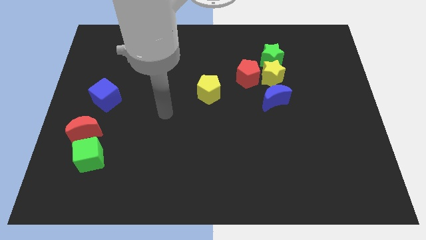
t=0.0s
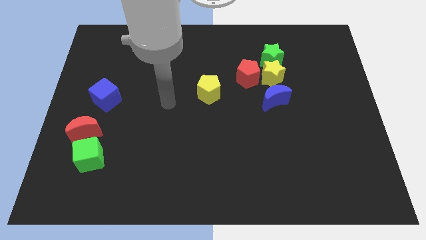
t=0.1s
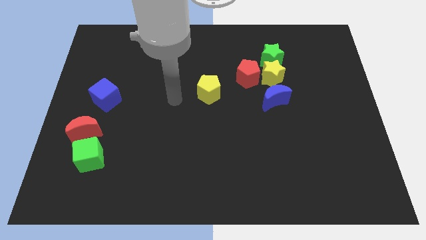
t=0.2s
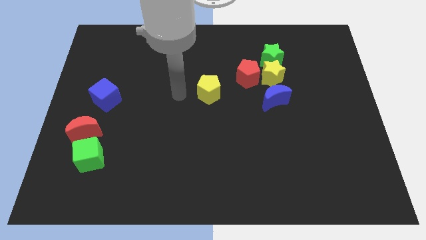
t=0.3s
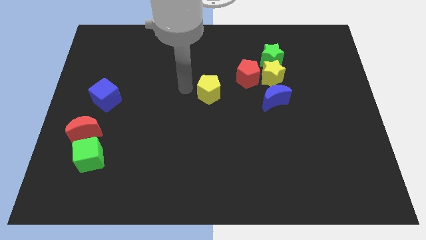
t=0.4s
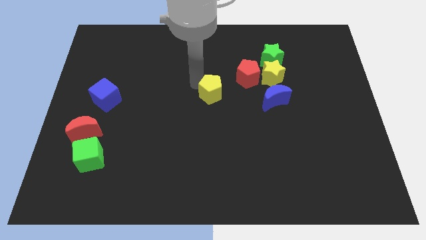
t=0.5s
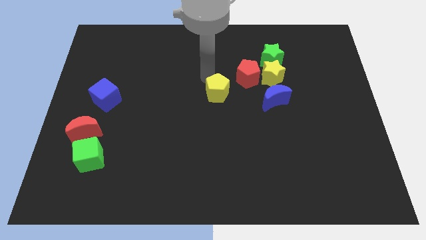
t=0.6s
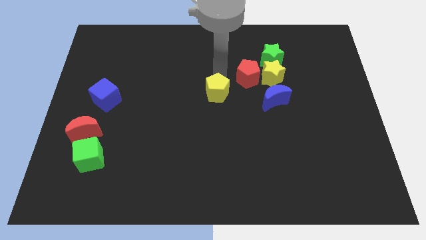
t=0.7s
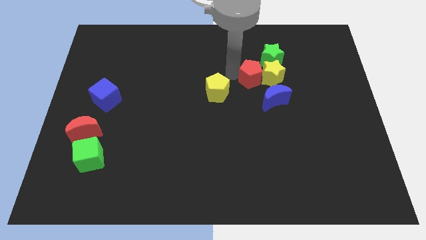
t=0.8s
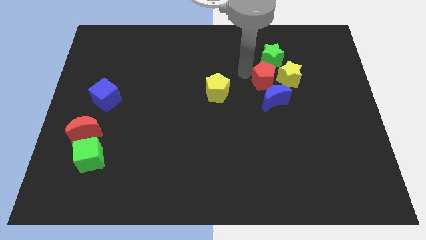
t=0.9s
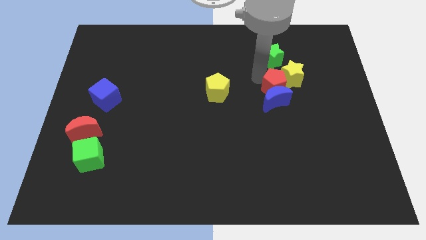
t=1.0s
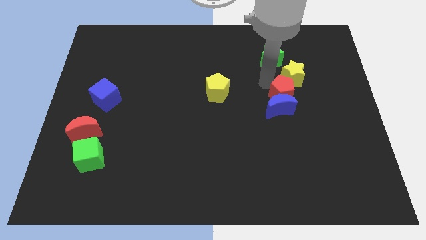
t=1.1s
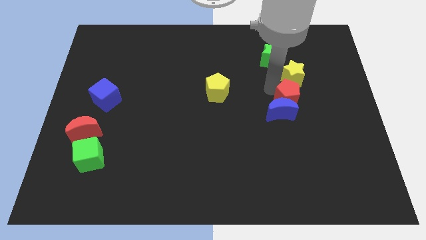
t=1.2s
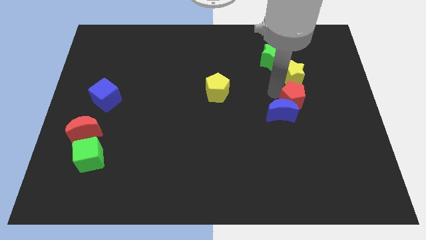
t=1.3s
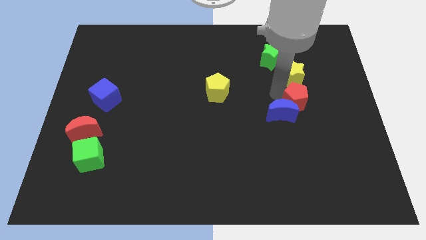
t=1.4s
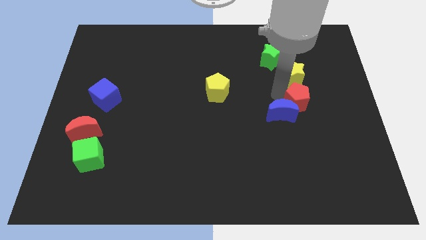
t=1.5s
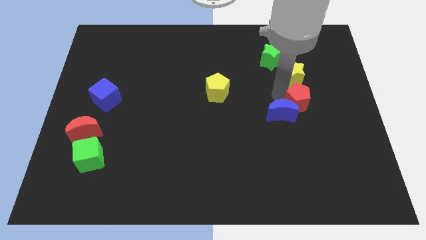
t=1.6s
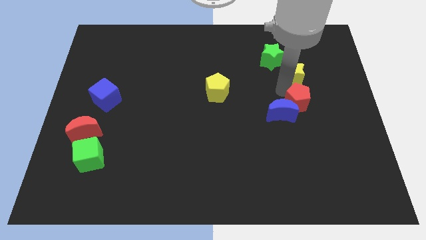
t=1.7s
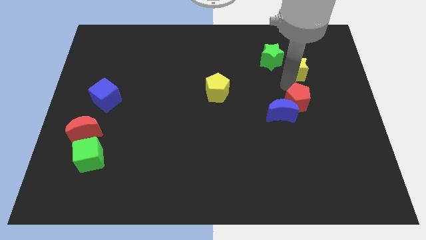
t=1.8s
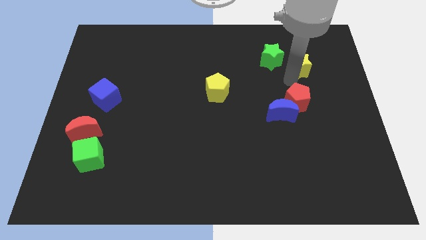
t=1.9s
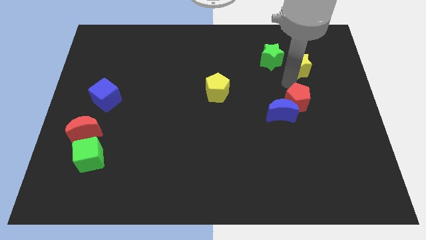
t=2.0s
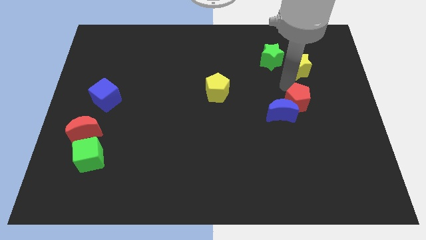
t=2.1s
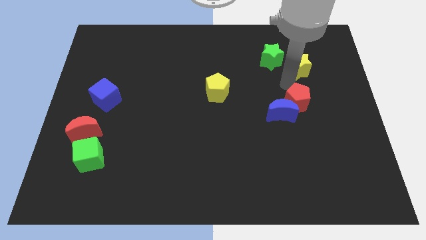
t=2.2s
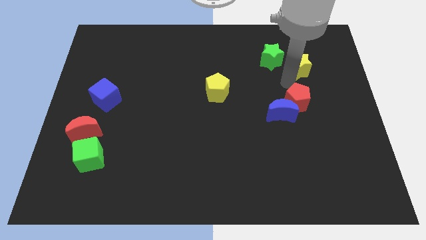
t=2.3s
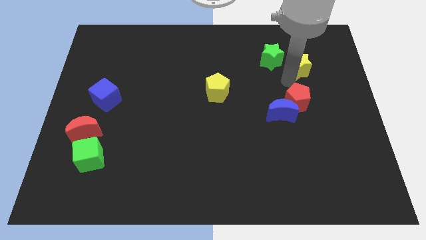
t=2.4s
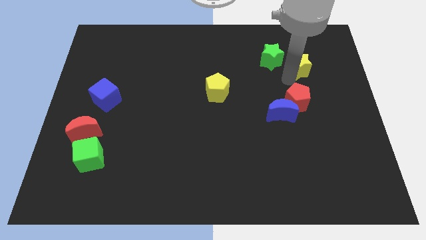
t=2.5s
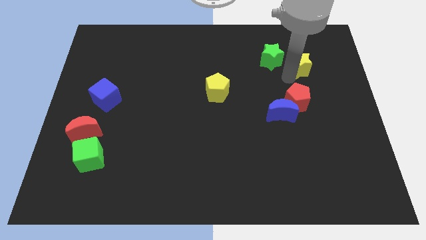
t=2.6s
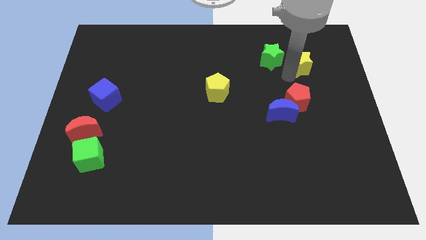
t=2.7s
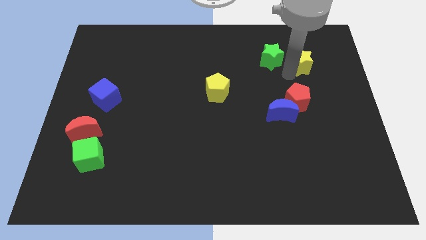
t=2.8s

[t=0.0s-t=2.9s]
separate the yellow star from the red pentagon, green star, and blue moon

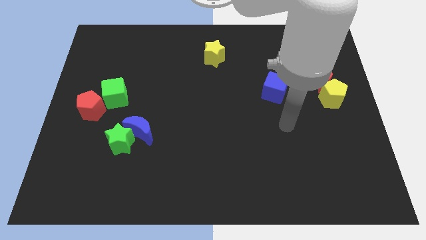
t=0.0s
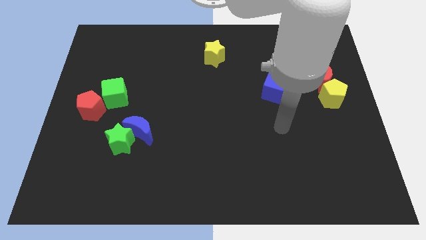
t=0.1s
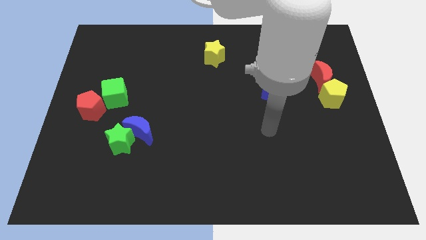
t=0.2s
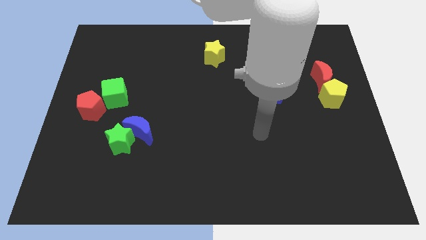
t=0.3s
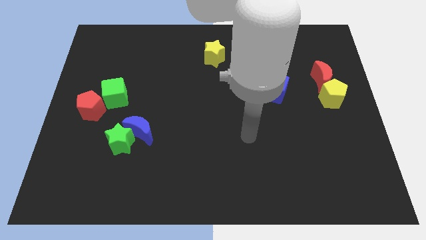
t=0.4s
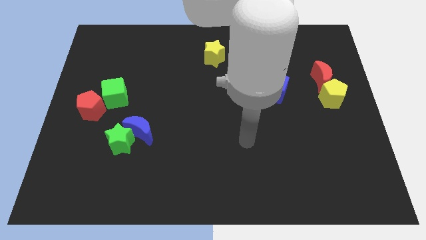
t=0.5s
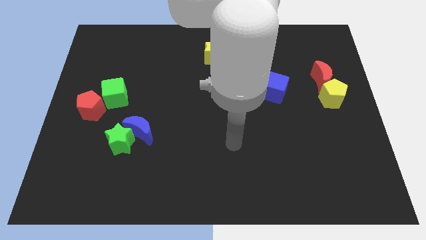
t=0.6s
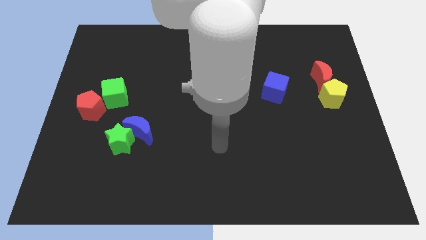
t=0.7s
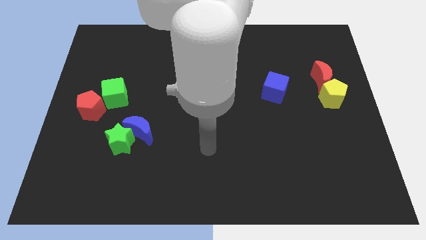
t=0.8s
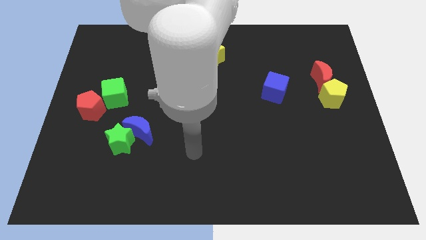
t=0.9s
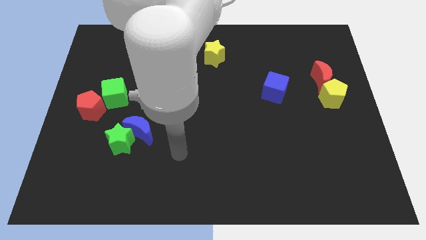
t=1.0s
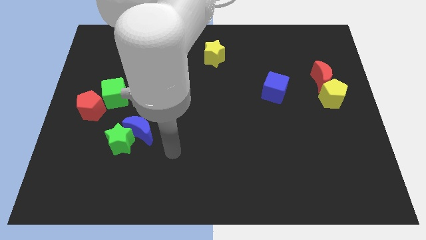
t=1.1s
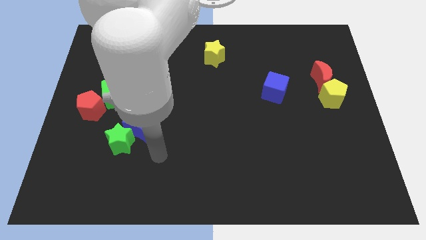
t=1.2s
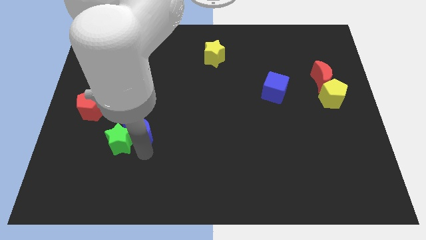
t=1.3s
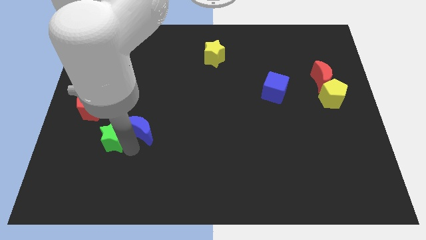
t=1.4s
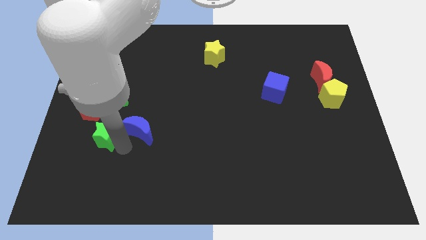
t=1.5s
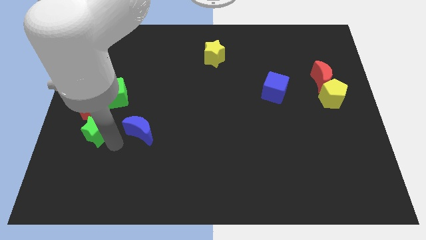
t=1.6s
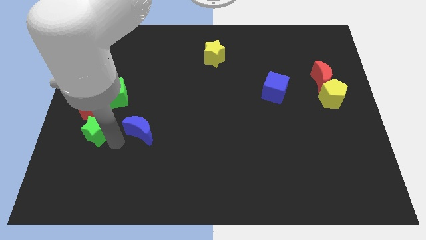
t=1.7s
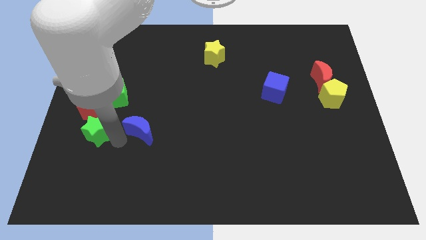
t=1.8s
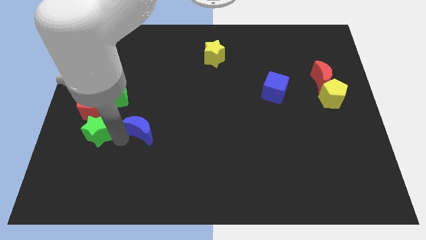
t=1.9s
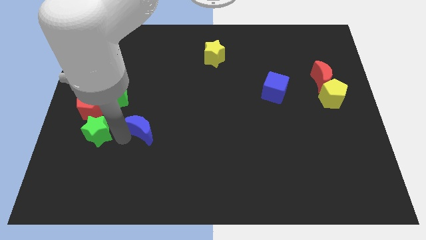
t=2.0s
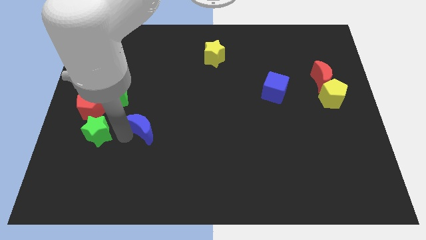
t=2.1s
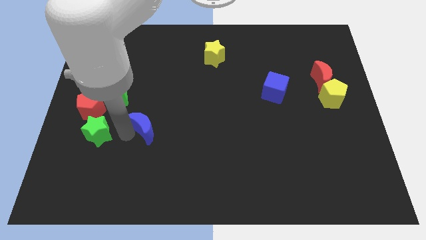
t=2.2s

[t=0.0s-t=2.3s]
pull the blue moon apart from the green star

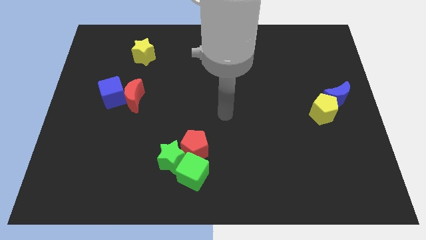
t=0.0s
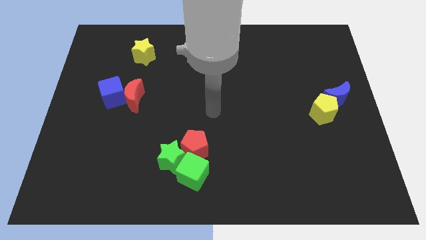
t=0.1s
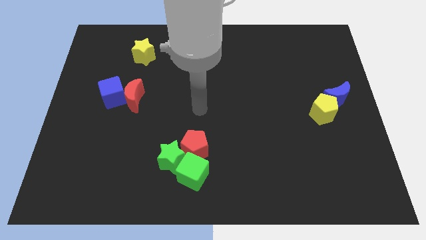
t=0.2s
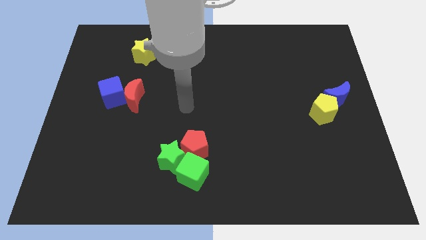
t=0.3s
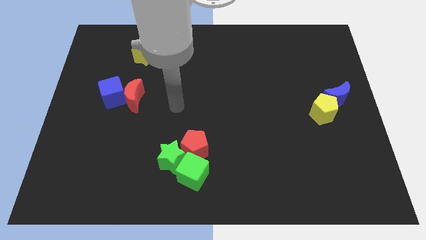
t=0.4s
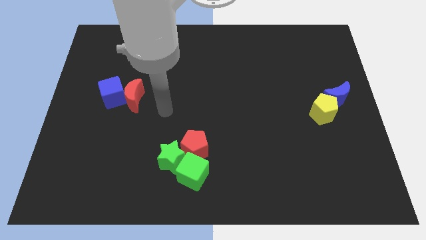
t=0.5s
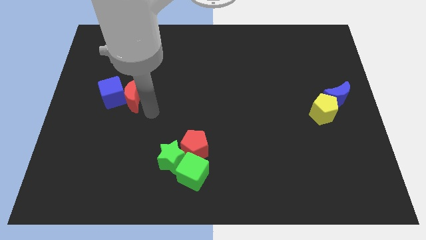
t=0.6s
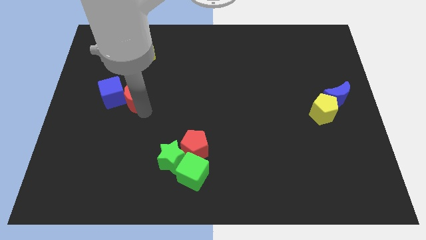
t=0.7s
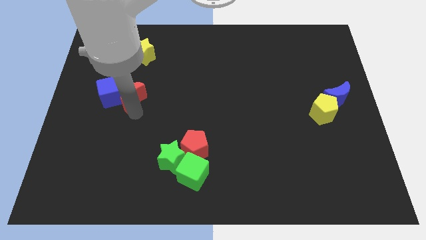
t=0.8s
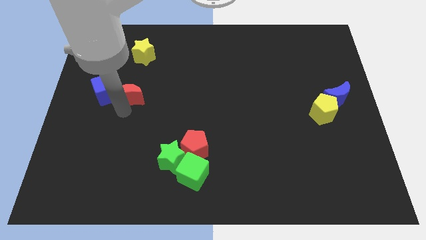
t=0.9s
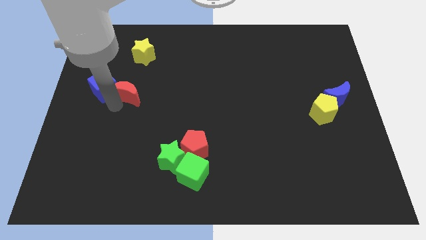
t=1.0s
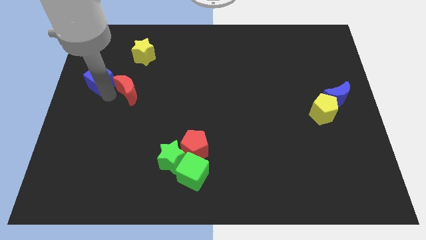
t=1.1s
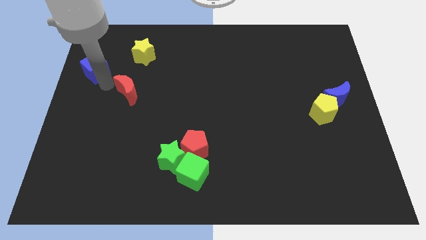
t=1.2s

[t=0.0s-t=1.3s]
move the red moon away from the blue cube

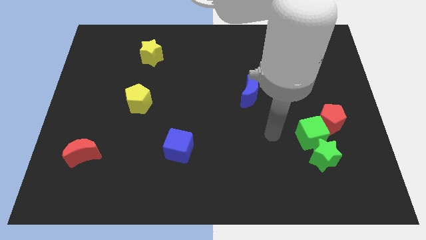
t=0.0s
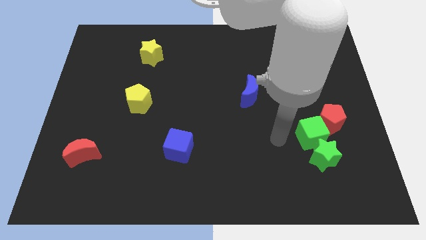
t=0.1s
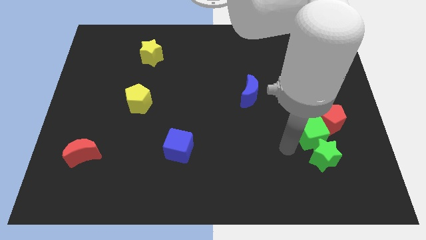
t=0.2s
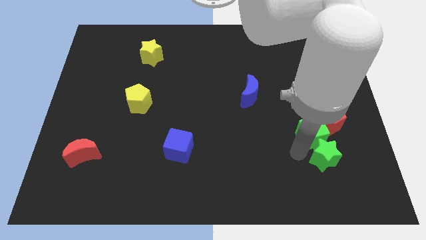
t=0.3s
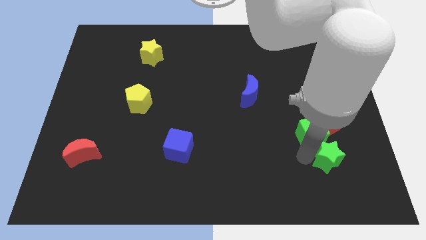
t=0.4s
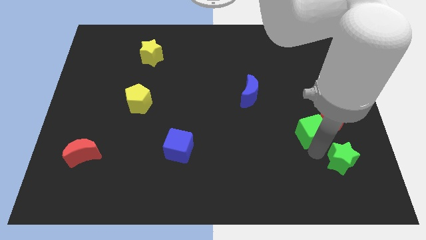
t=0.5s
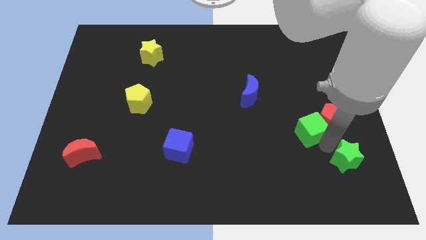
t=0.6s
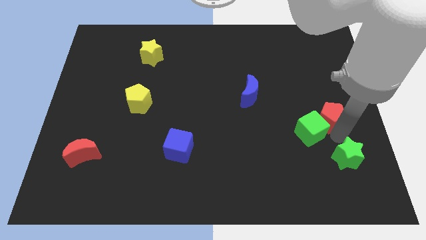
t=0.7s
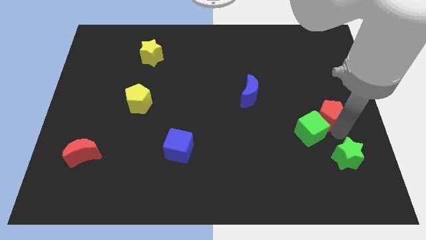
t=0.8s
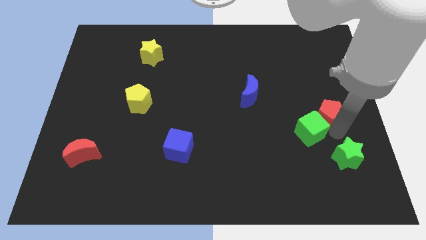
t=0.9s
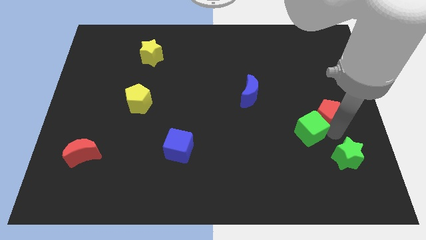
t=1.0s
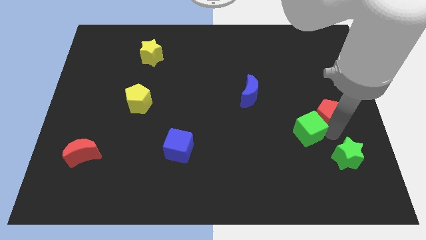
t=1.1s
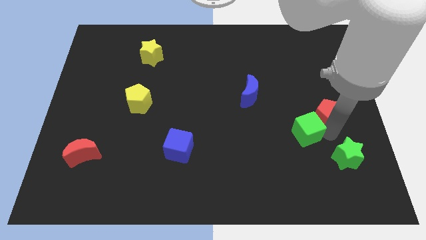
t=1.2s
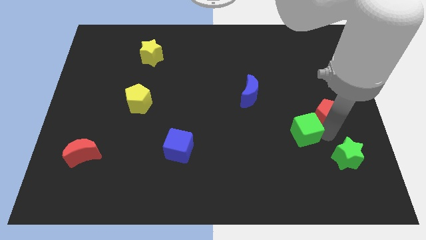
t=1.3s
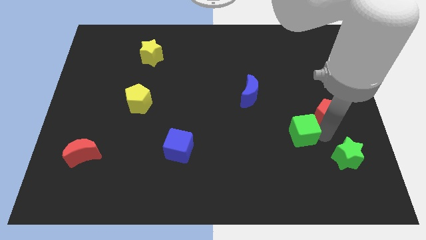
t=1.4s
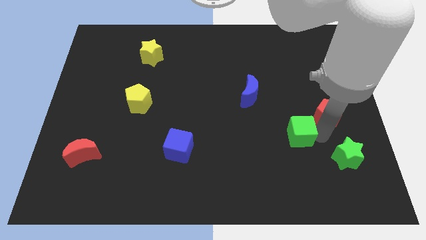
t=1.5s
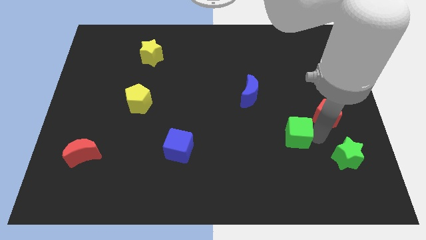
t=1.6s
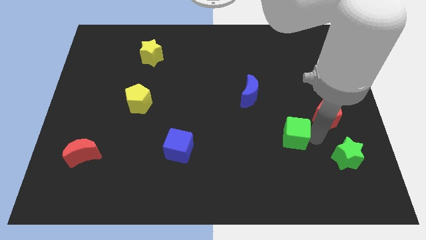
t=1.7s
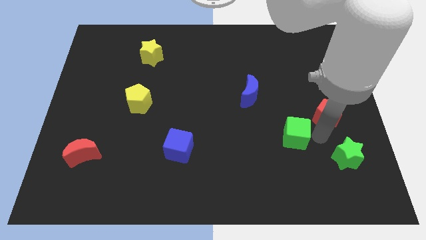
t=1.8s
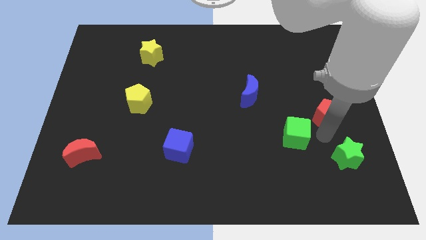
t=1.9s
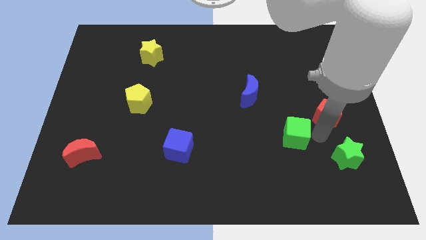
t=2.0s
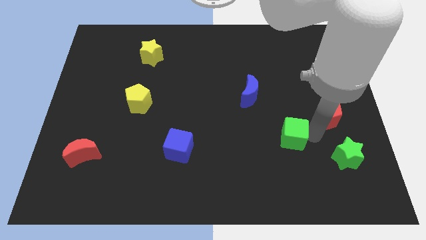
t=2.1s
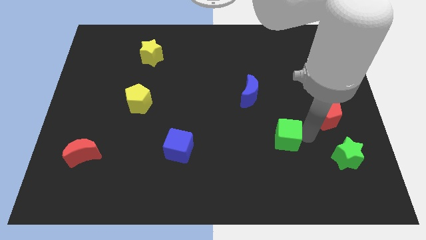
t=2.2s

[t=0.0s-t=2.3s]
separate the green cube from the green star and red pentagon

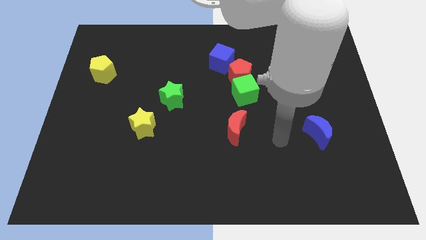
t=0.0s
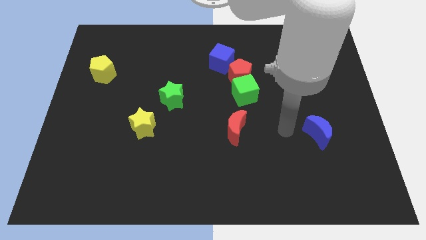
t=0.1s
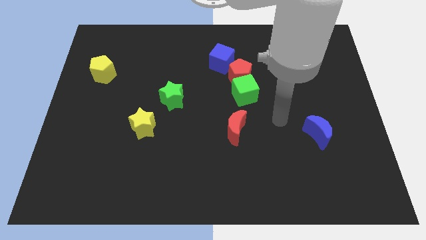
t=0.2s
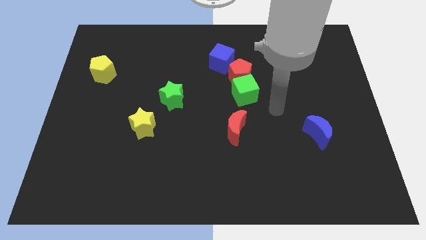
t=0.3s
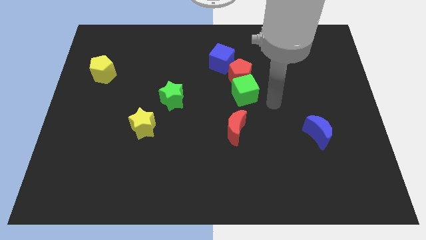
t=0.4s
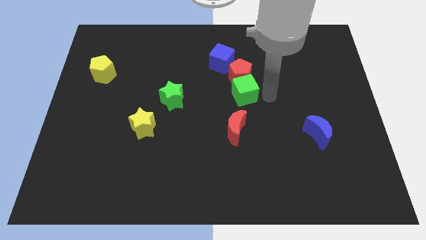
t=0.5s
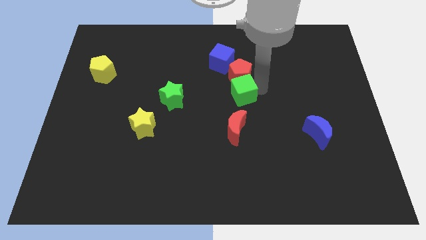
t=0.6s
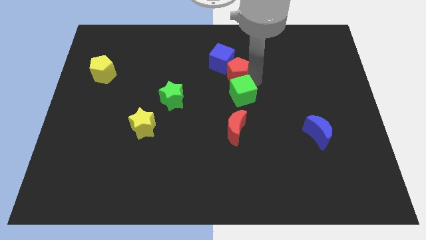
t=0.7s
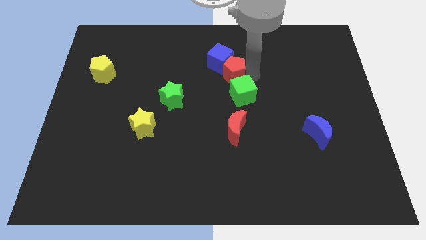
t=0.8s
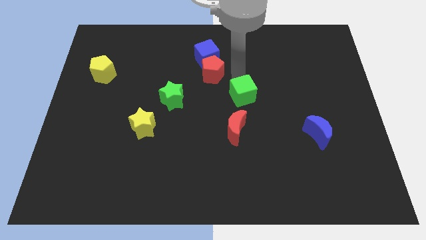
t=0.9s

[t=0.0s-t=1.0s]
pull the green cube apart from the red pentagon
